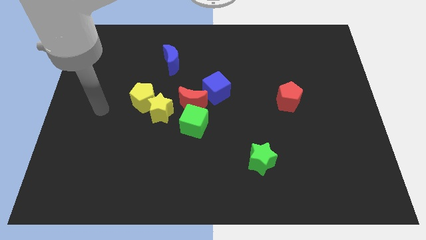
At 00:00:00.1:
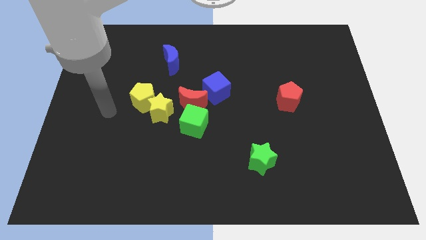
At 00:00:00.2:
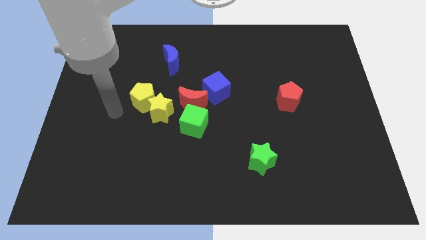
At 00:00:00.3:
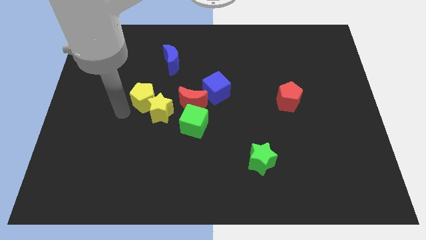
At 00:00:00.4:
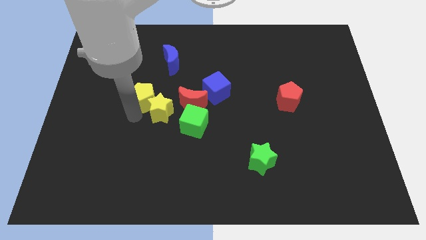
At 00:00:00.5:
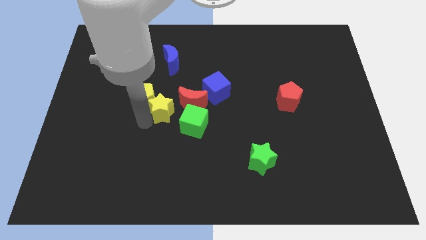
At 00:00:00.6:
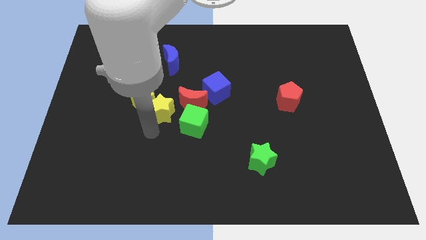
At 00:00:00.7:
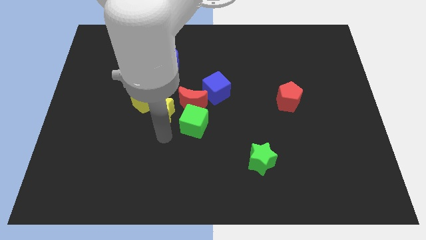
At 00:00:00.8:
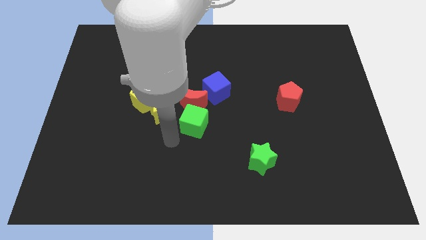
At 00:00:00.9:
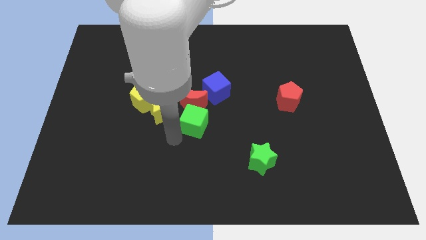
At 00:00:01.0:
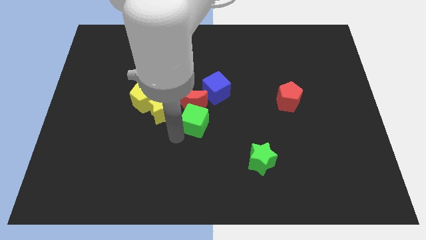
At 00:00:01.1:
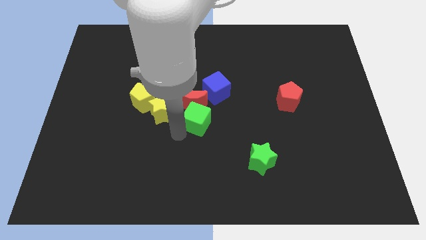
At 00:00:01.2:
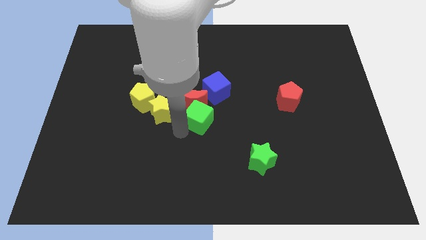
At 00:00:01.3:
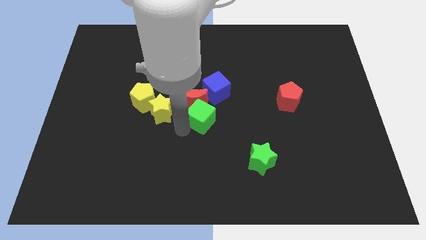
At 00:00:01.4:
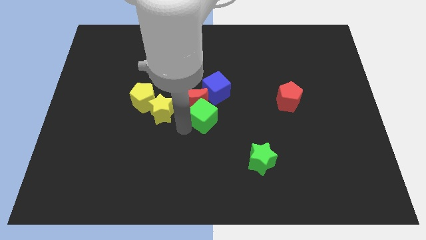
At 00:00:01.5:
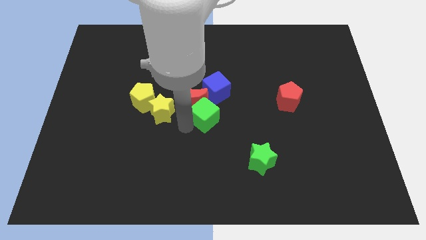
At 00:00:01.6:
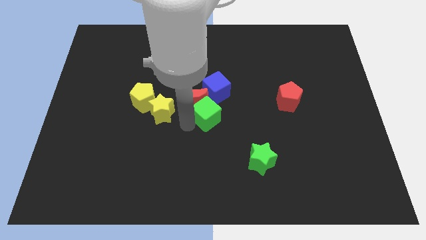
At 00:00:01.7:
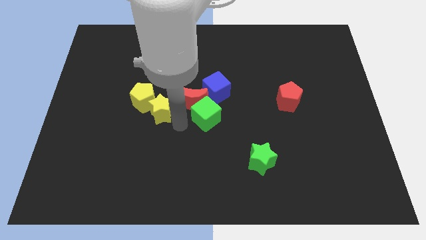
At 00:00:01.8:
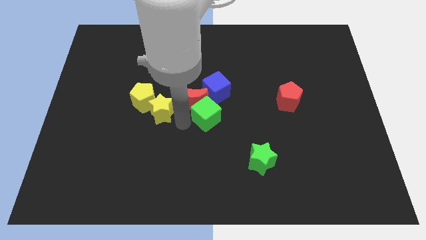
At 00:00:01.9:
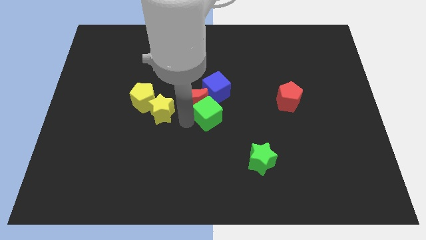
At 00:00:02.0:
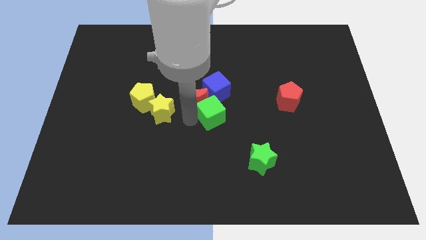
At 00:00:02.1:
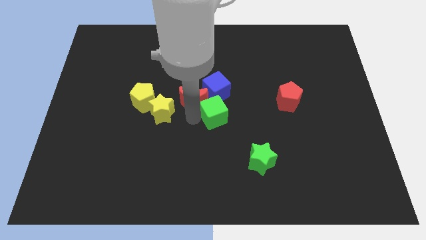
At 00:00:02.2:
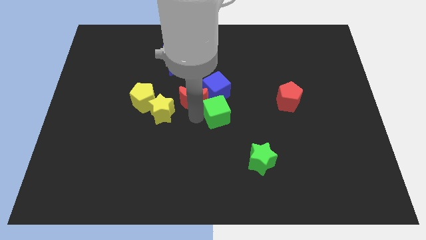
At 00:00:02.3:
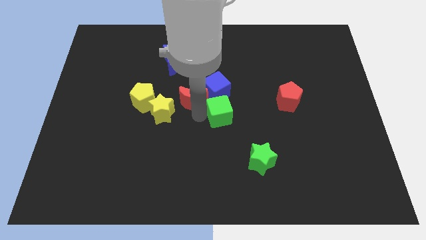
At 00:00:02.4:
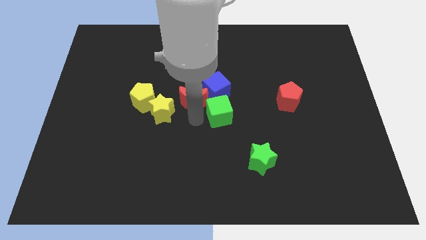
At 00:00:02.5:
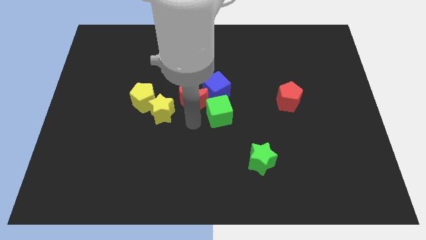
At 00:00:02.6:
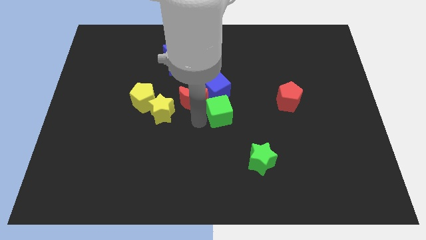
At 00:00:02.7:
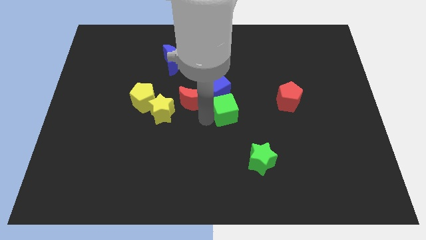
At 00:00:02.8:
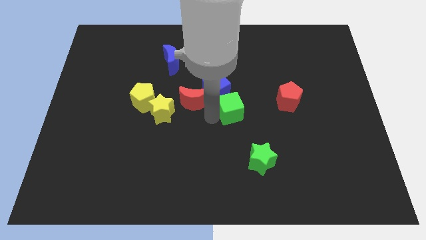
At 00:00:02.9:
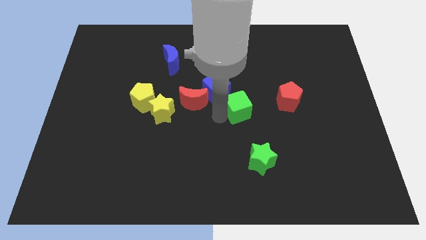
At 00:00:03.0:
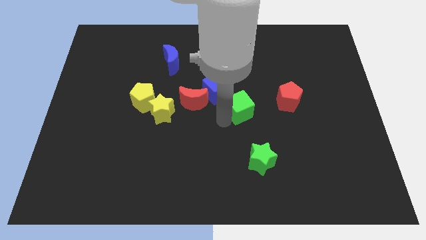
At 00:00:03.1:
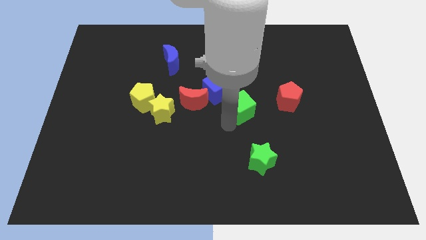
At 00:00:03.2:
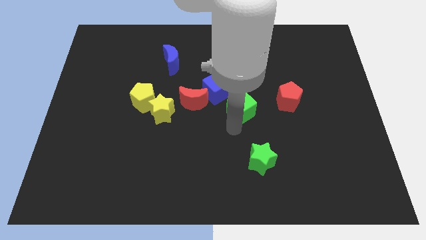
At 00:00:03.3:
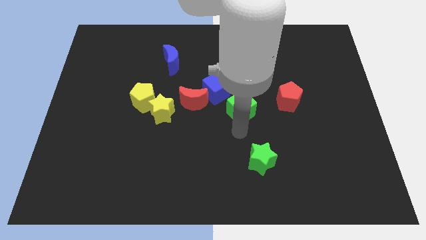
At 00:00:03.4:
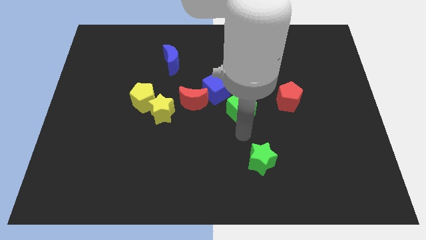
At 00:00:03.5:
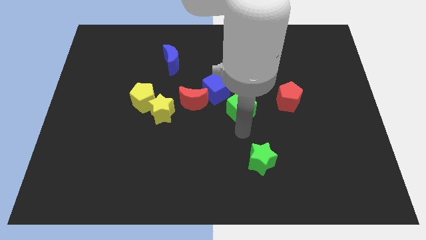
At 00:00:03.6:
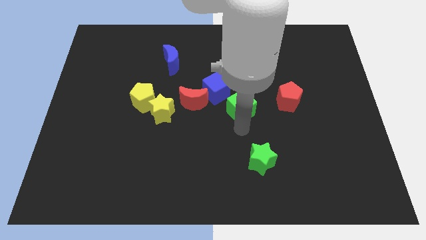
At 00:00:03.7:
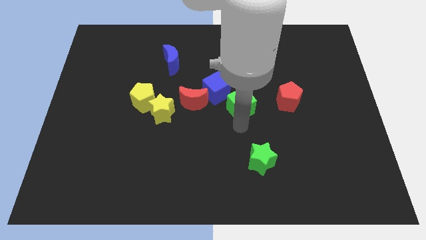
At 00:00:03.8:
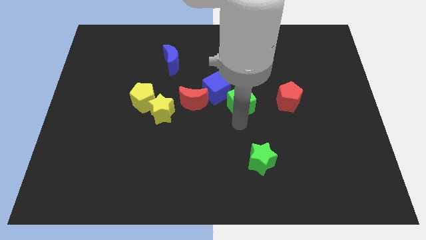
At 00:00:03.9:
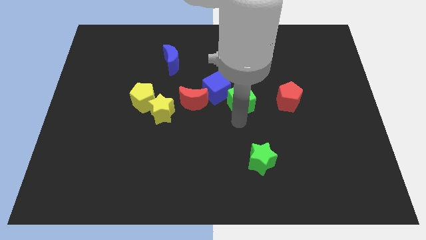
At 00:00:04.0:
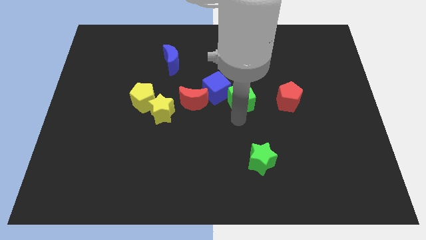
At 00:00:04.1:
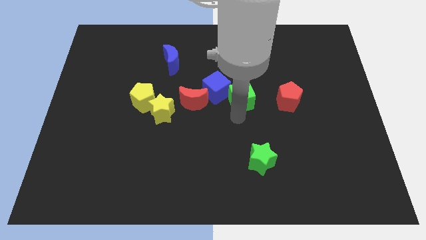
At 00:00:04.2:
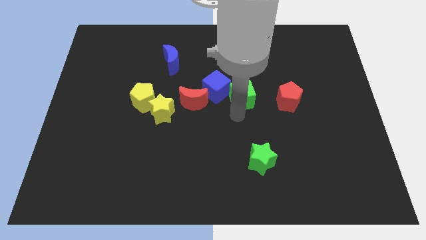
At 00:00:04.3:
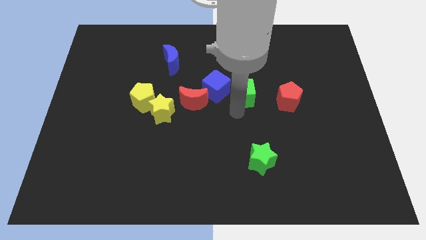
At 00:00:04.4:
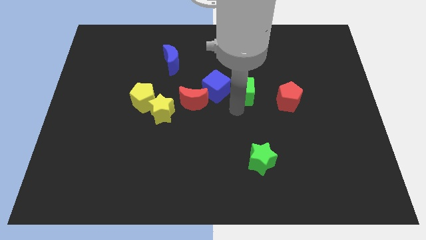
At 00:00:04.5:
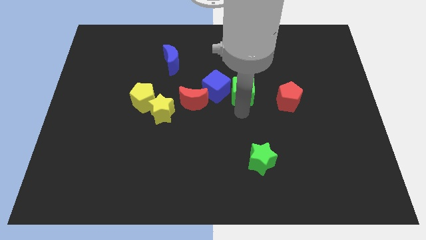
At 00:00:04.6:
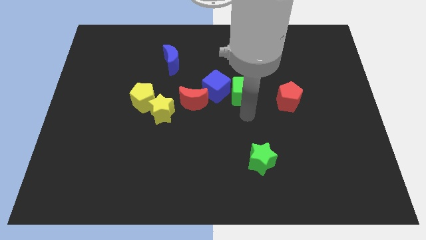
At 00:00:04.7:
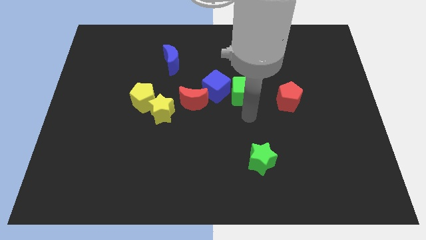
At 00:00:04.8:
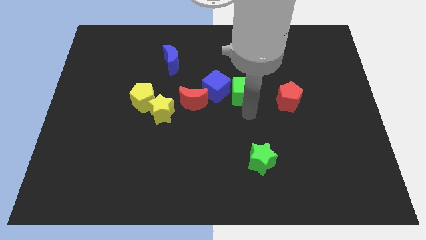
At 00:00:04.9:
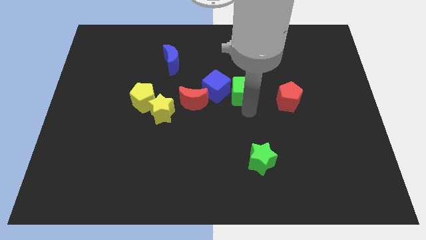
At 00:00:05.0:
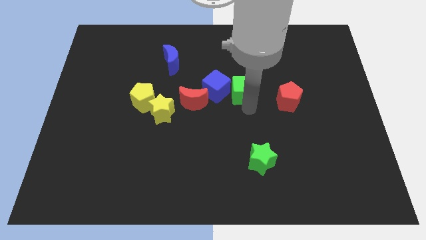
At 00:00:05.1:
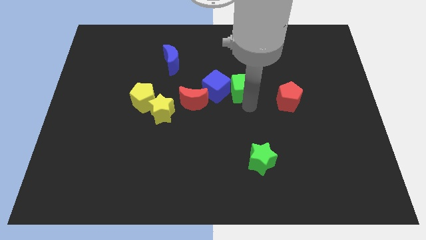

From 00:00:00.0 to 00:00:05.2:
slide the green cube diagonally up and to the right of the blue cube

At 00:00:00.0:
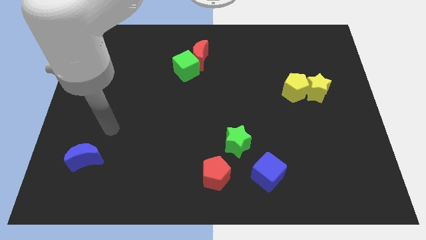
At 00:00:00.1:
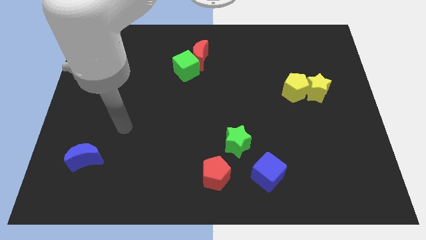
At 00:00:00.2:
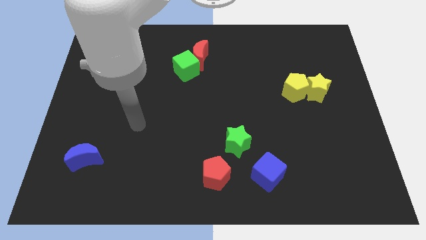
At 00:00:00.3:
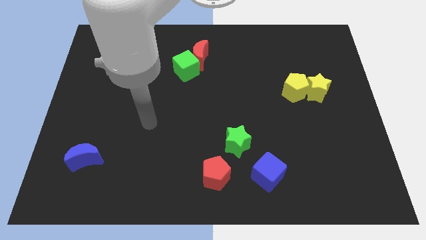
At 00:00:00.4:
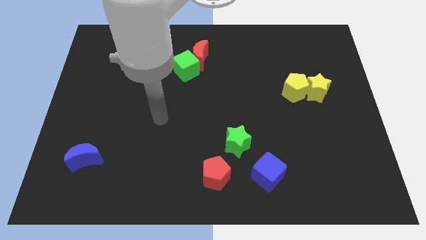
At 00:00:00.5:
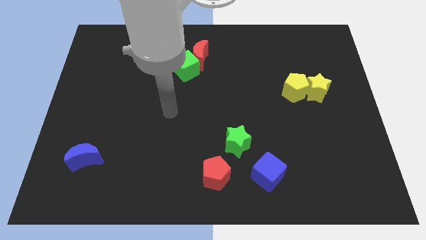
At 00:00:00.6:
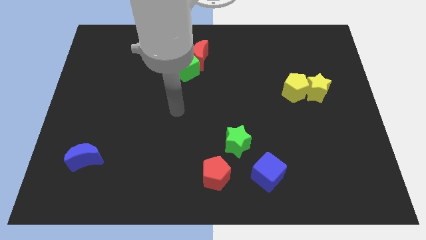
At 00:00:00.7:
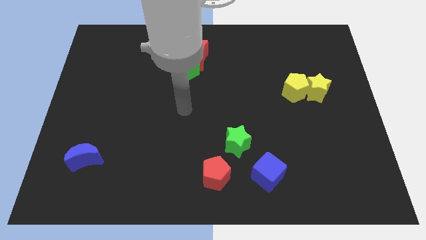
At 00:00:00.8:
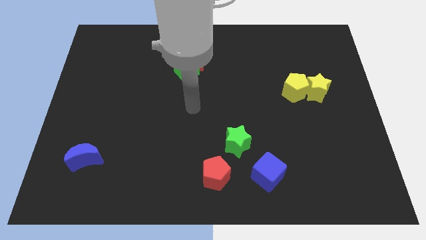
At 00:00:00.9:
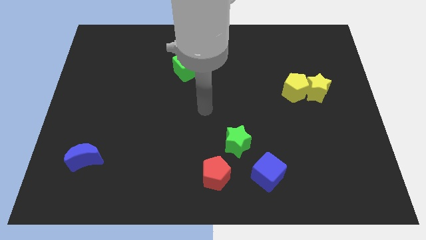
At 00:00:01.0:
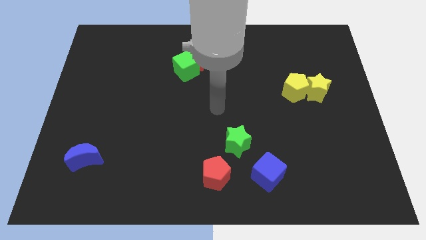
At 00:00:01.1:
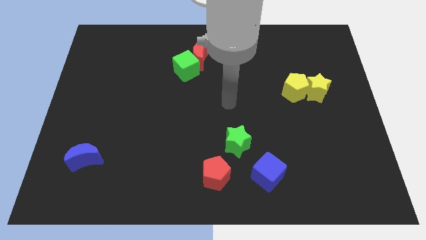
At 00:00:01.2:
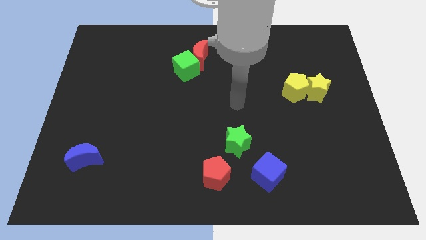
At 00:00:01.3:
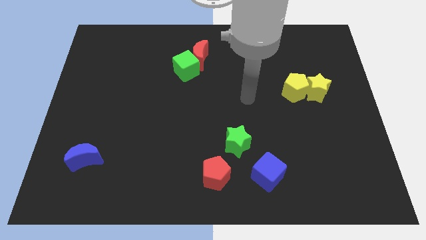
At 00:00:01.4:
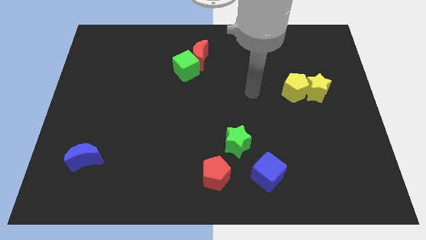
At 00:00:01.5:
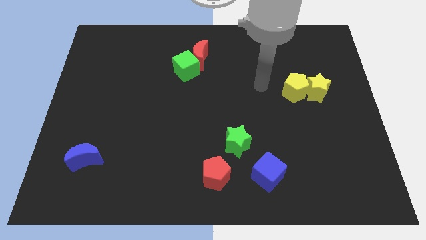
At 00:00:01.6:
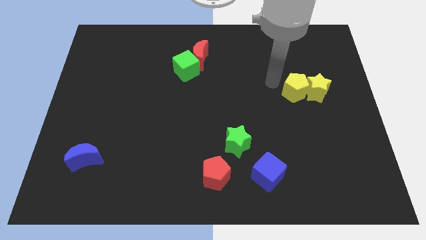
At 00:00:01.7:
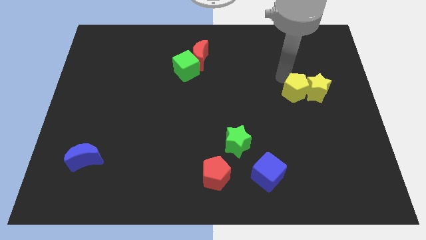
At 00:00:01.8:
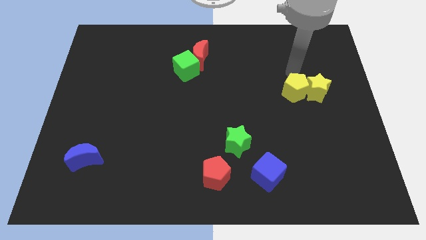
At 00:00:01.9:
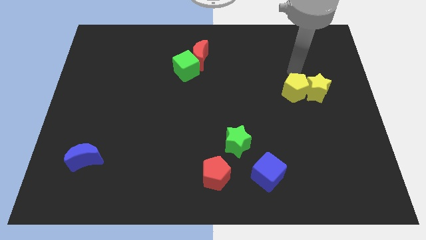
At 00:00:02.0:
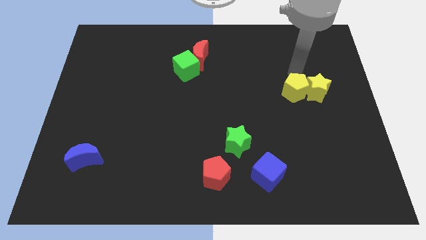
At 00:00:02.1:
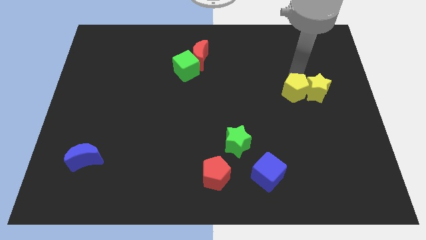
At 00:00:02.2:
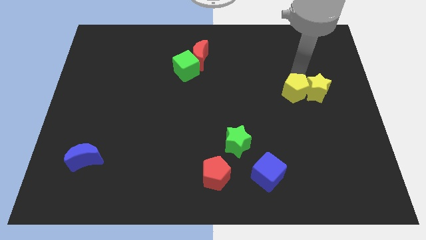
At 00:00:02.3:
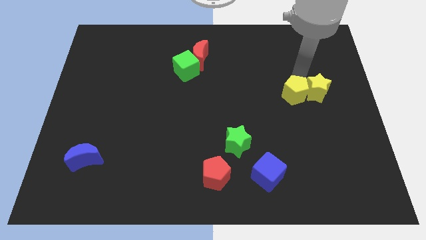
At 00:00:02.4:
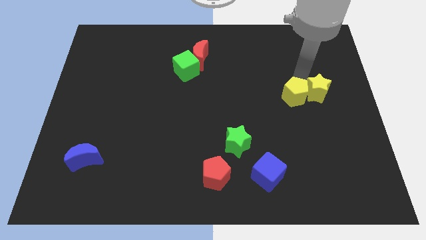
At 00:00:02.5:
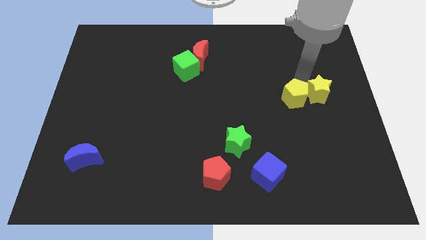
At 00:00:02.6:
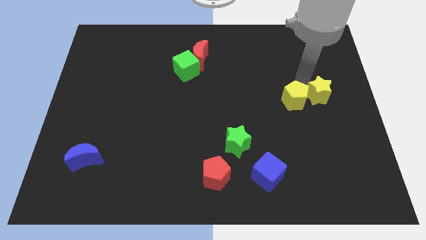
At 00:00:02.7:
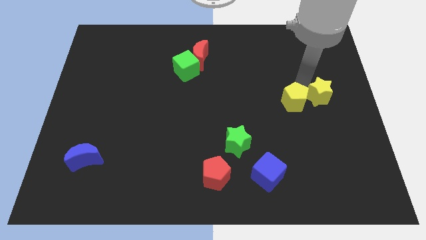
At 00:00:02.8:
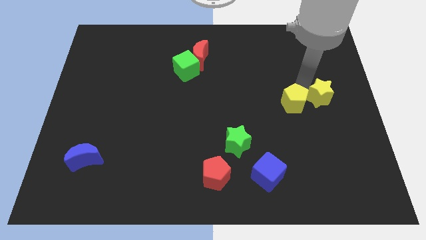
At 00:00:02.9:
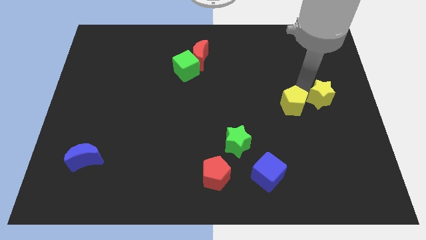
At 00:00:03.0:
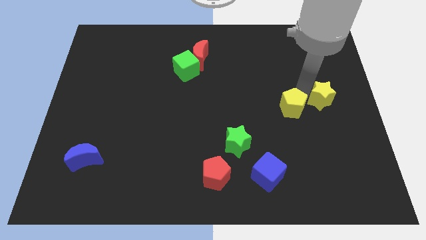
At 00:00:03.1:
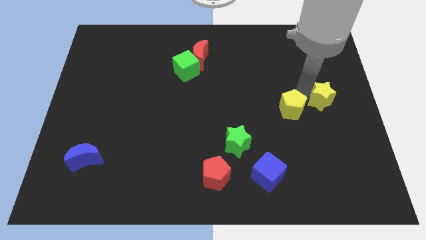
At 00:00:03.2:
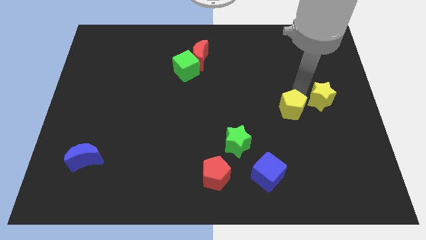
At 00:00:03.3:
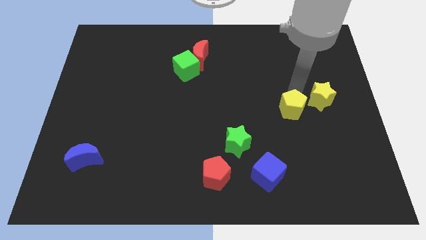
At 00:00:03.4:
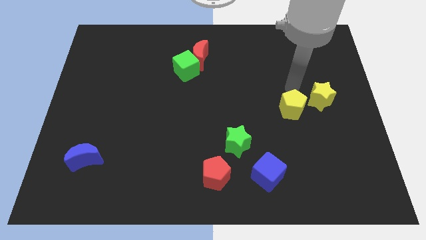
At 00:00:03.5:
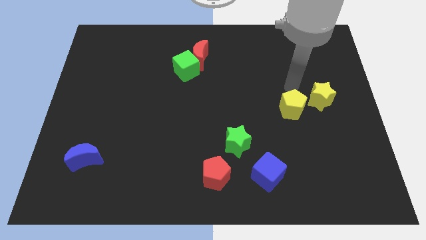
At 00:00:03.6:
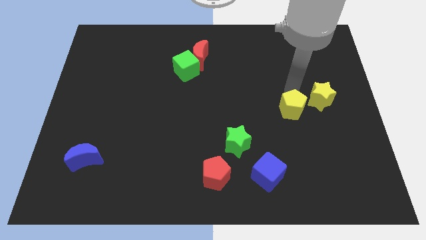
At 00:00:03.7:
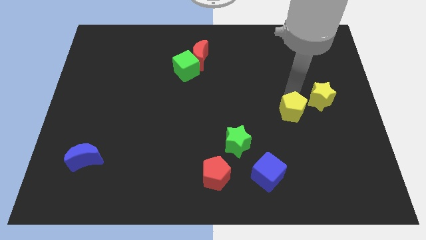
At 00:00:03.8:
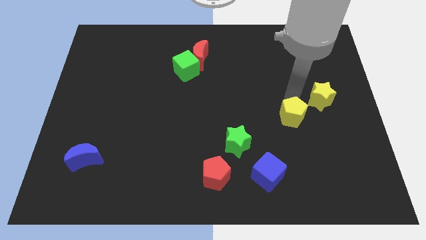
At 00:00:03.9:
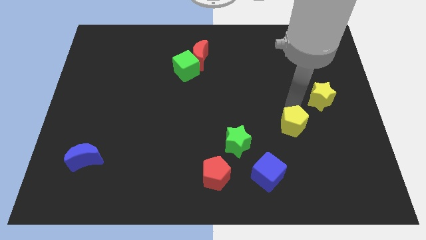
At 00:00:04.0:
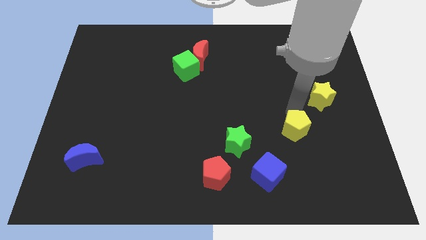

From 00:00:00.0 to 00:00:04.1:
move the yellow pentagon just right of the green star
